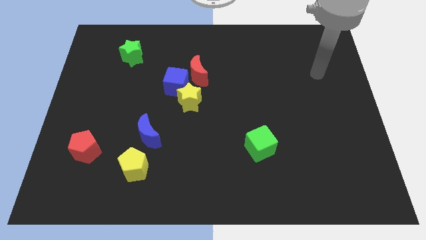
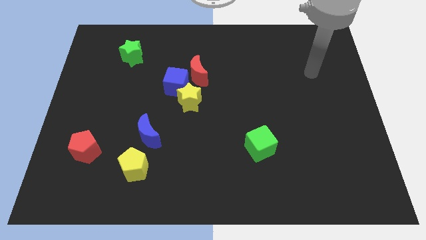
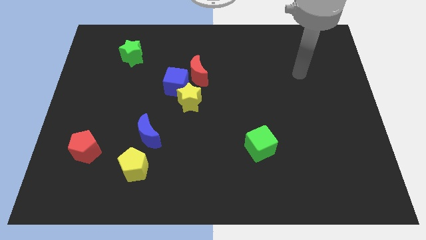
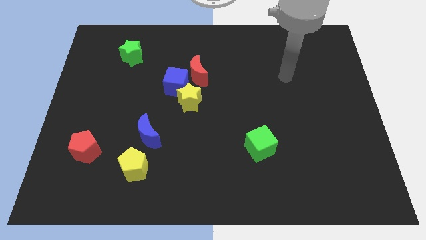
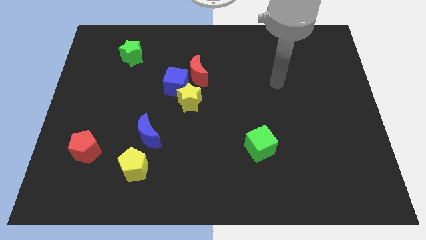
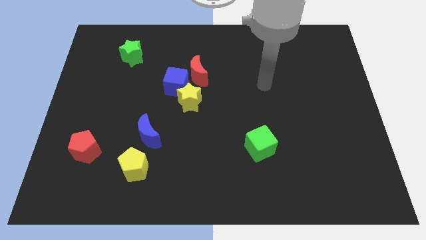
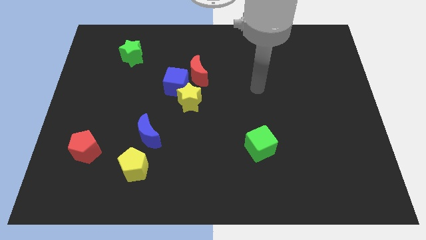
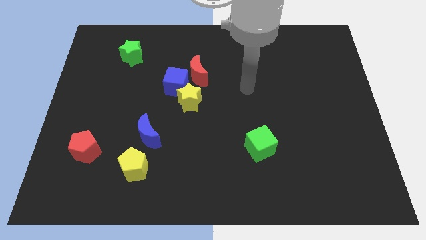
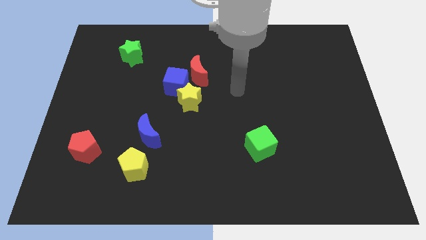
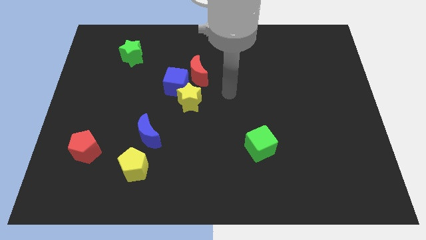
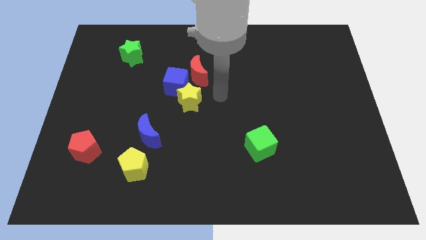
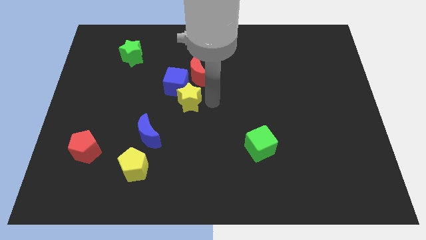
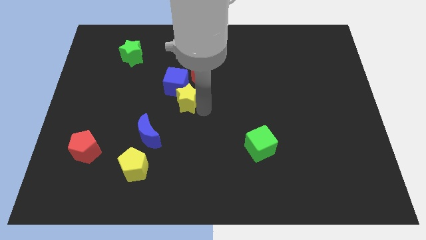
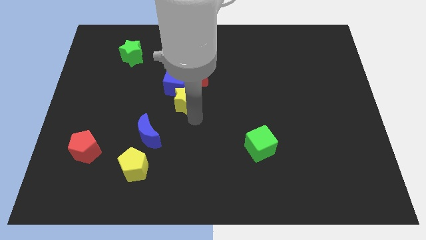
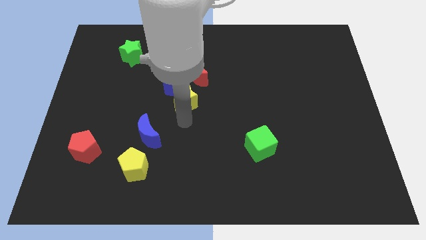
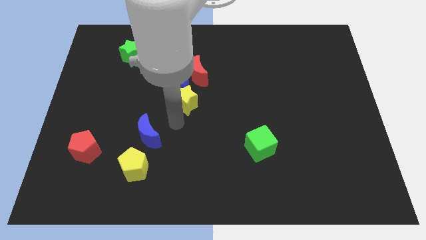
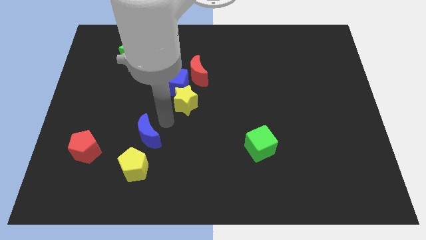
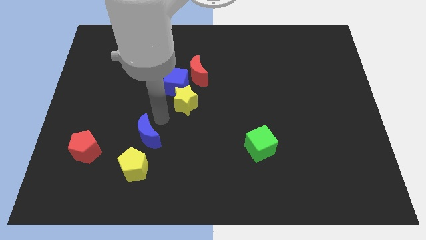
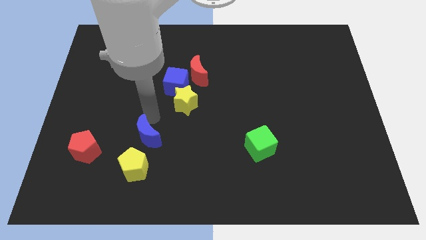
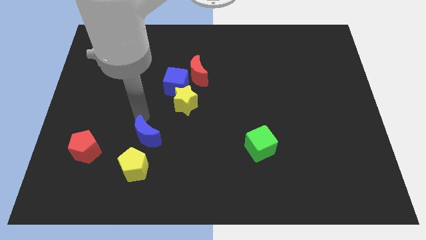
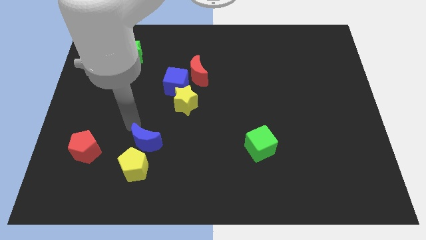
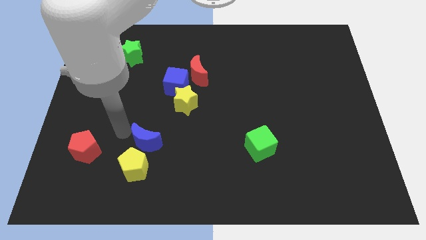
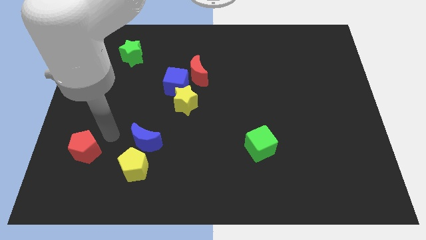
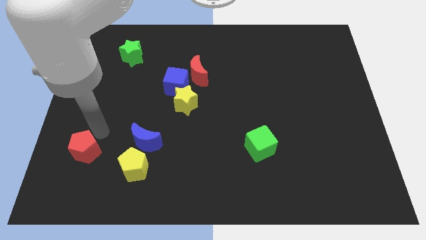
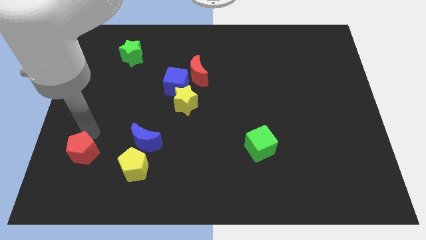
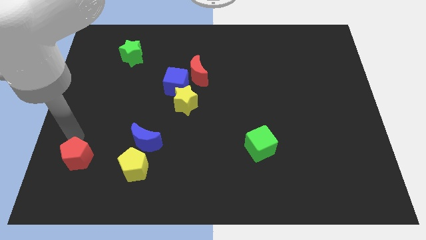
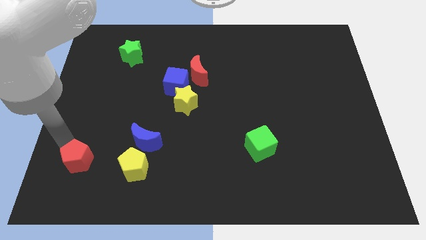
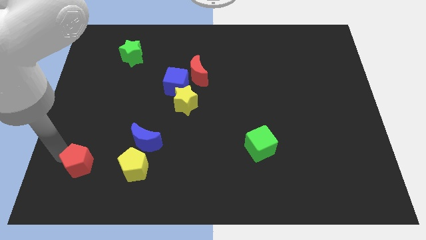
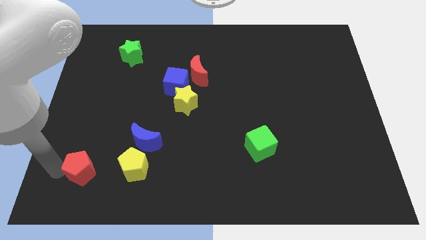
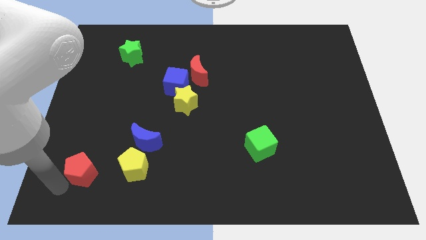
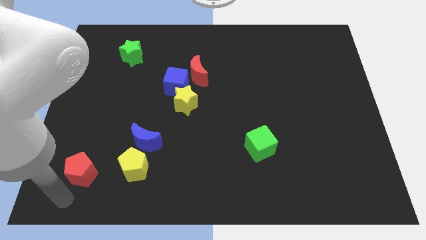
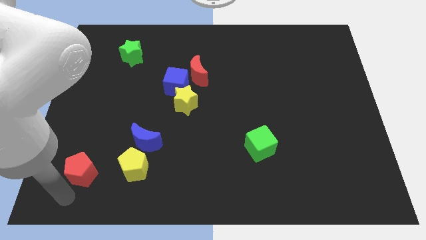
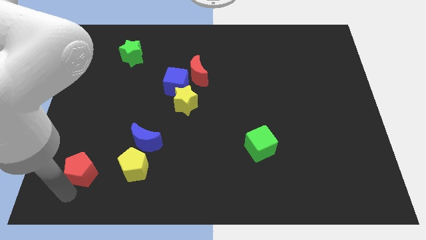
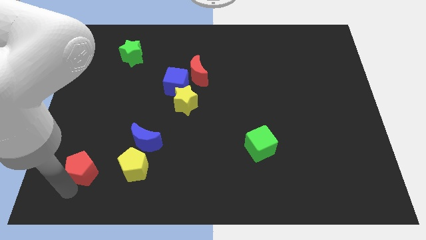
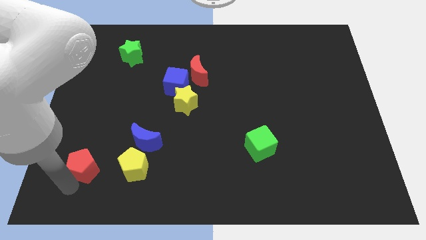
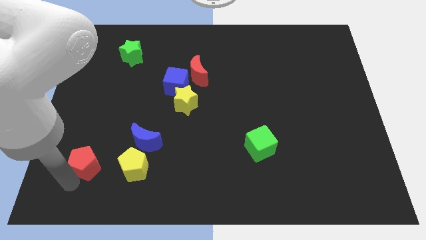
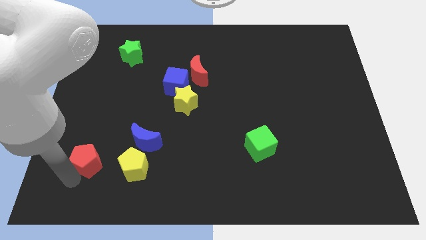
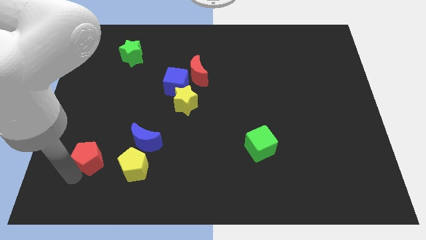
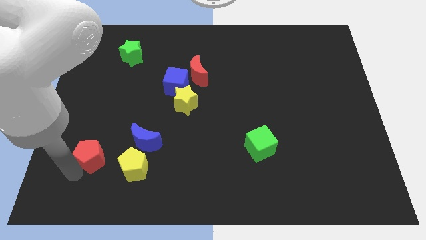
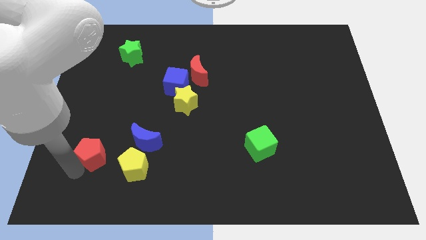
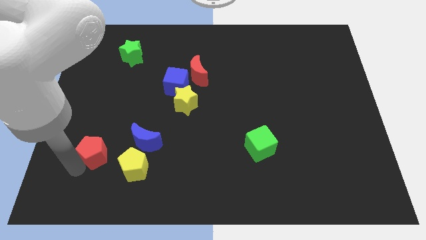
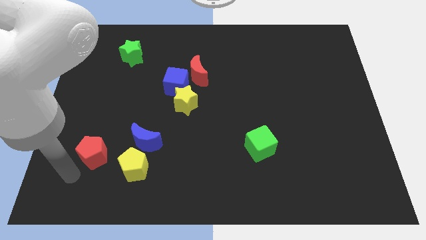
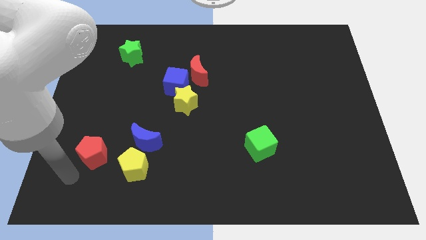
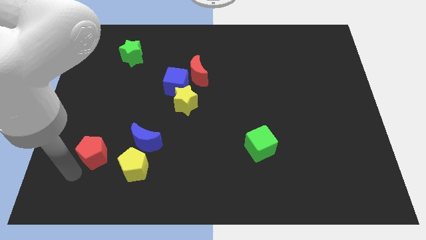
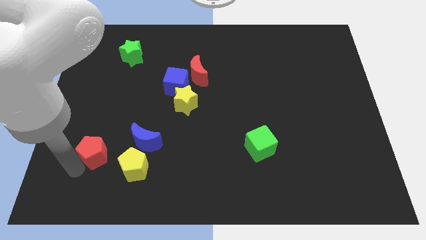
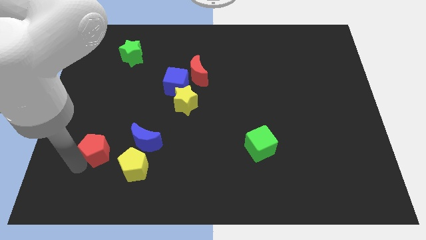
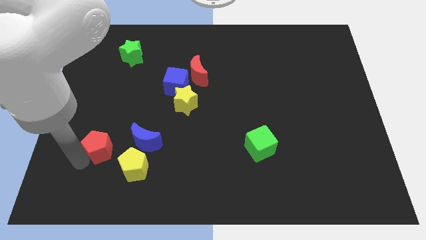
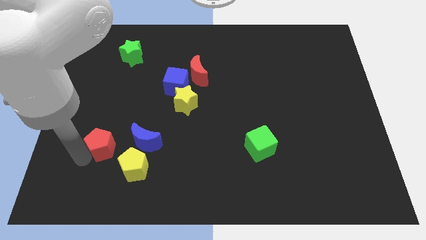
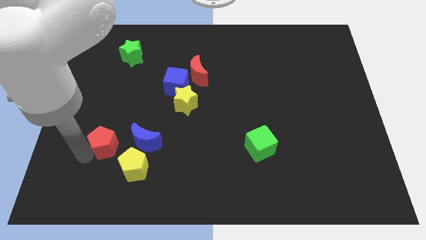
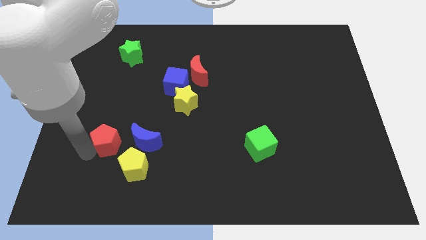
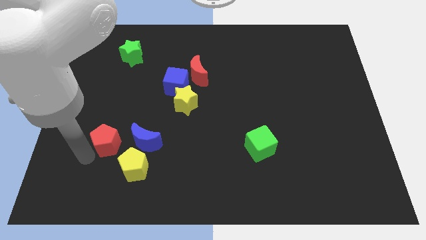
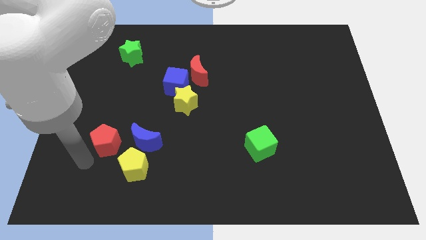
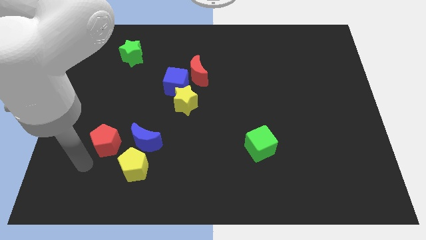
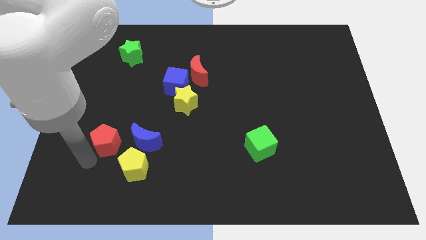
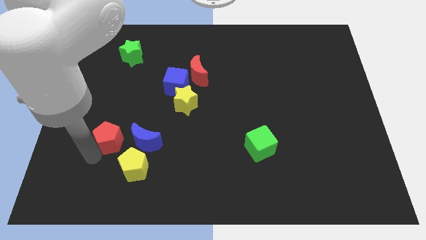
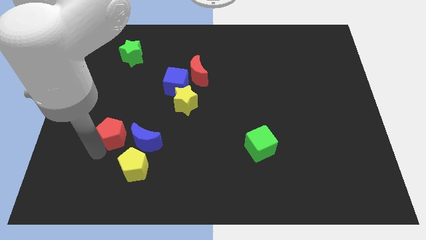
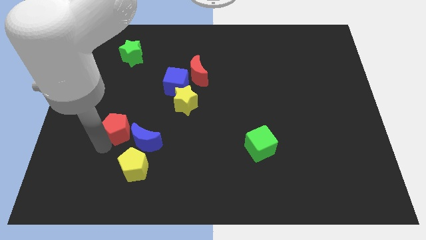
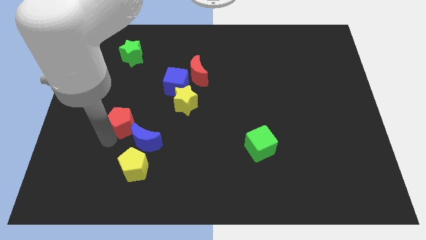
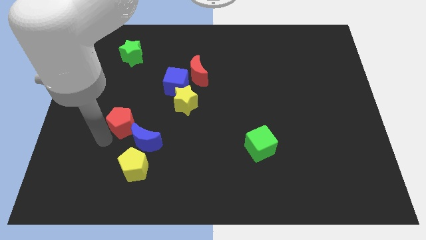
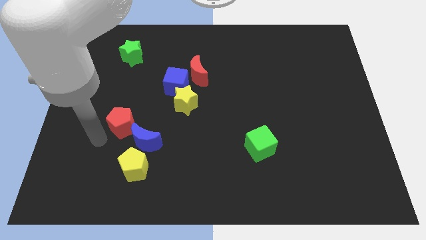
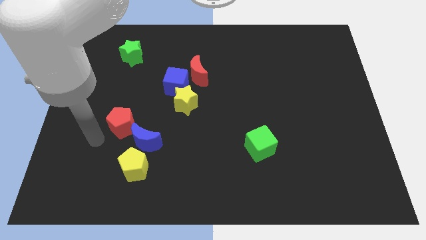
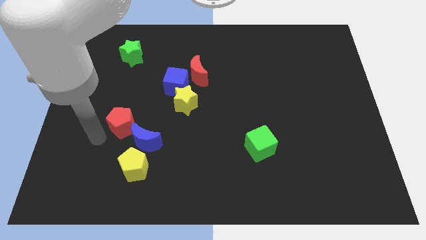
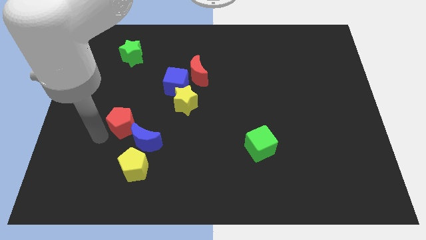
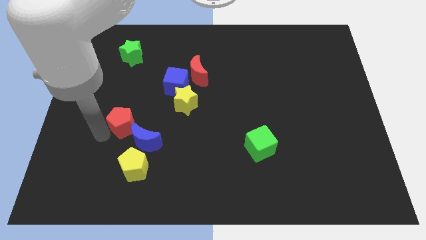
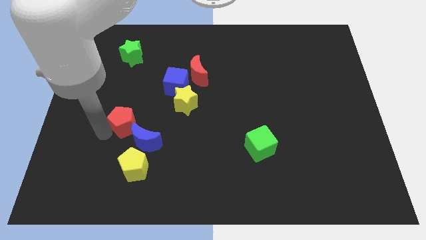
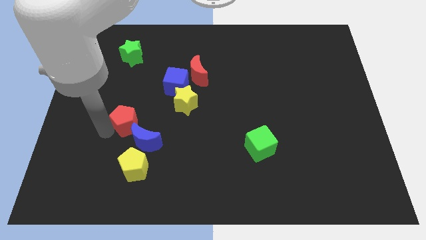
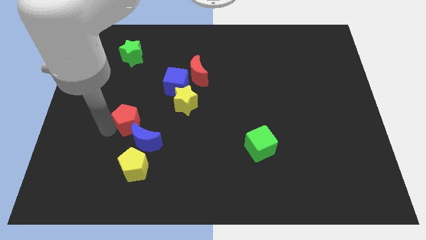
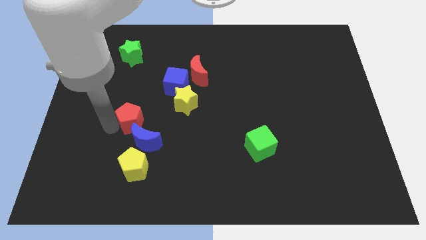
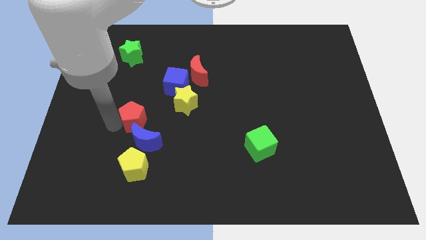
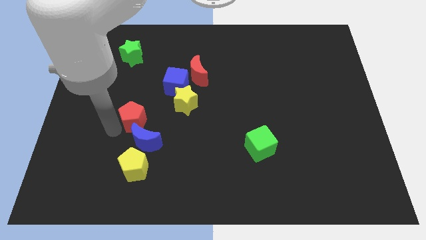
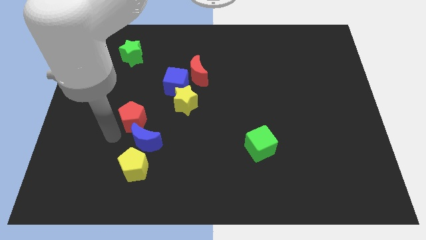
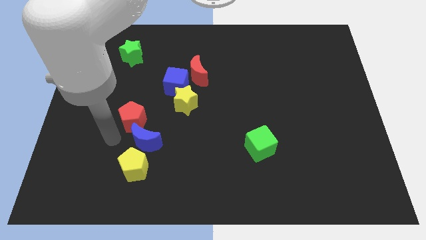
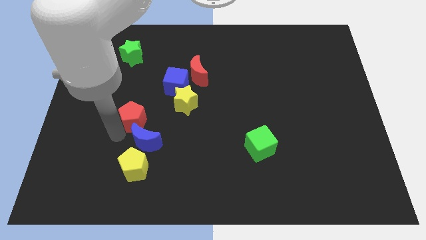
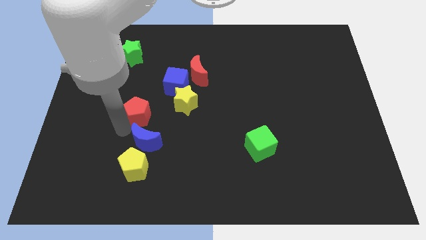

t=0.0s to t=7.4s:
move the red pentagon to the bottom left of the blue cube

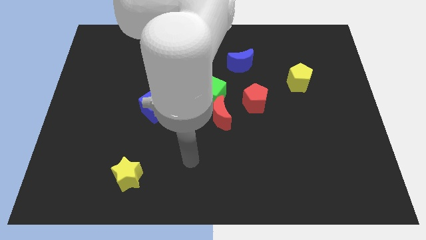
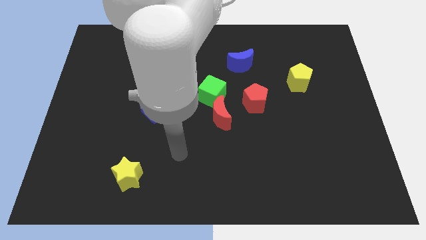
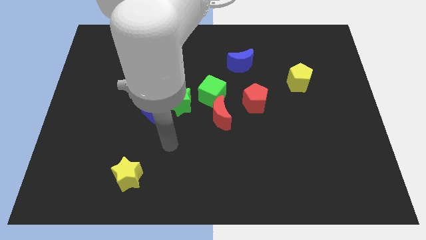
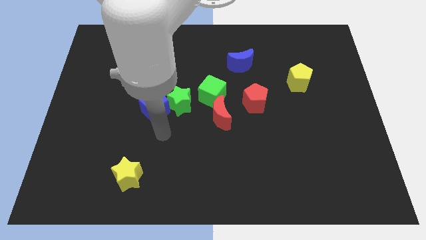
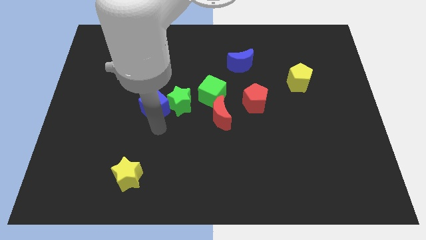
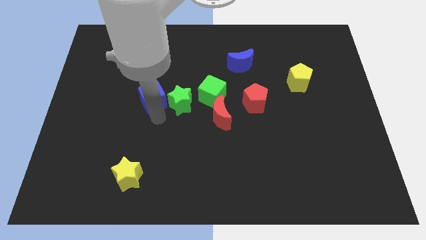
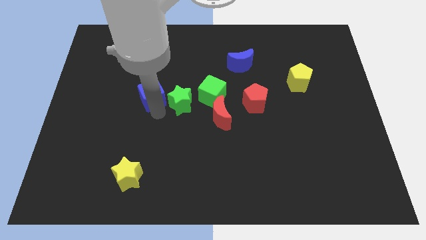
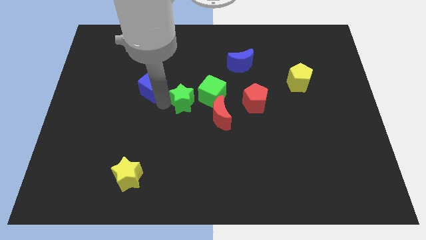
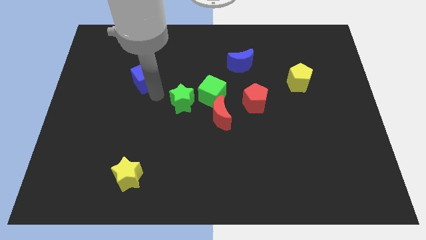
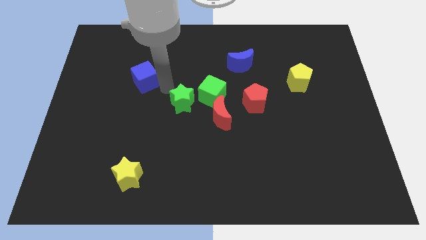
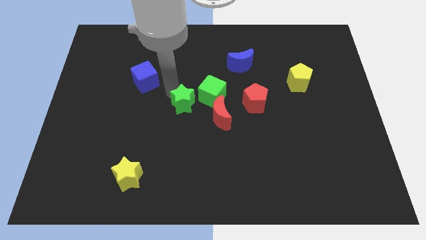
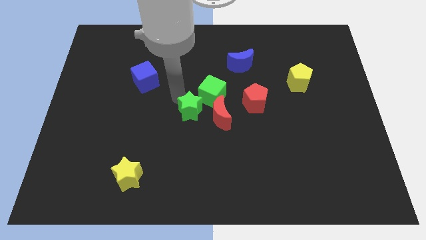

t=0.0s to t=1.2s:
slide the green star below the green cube
